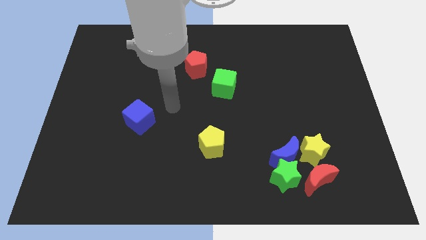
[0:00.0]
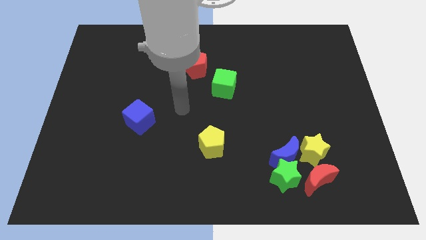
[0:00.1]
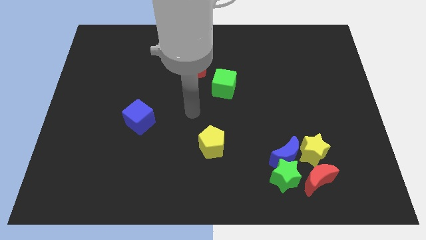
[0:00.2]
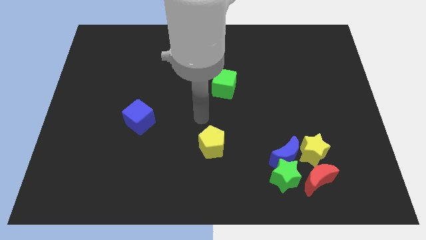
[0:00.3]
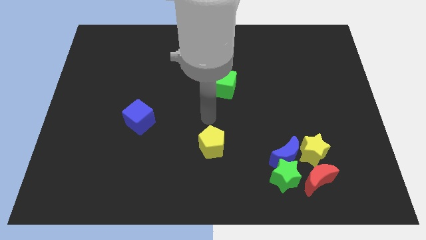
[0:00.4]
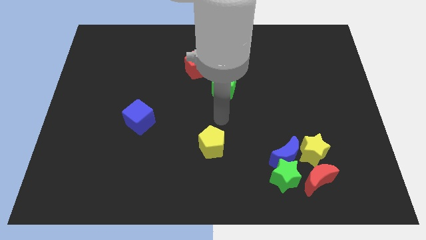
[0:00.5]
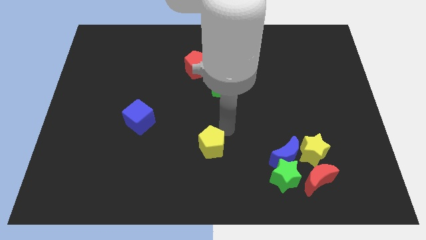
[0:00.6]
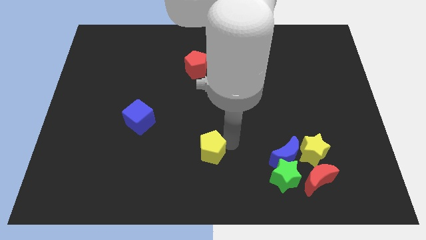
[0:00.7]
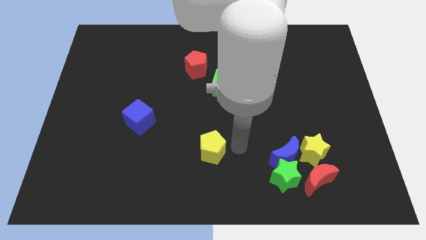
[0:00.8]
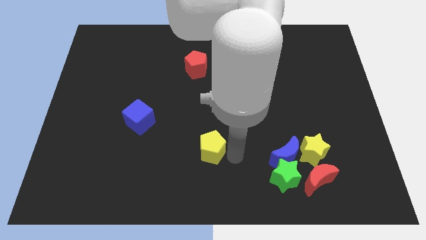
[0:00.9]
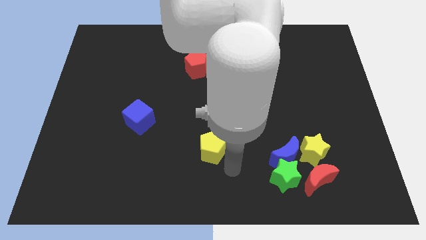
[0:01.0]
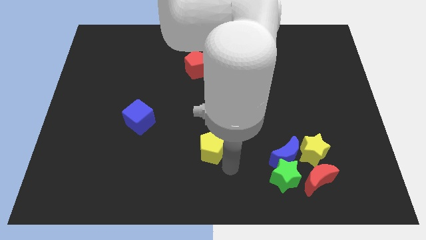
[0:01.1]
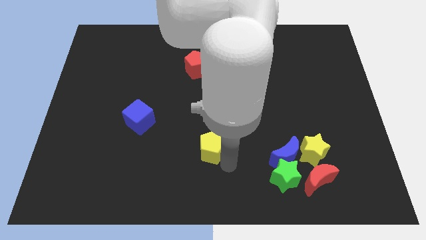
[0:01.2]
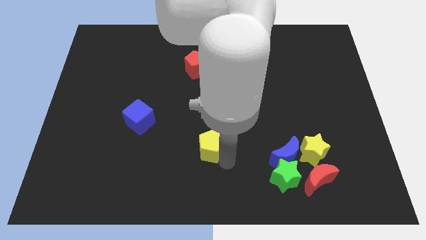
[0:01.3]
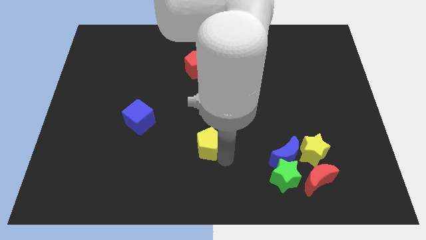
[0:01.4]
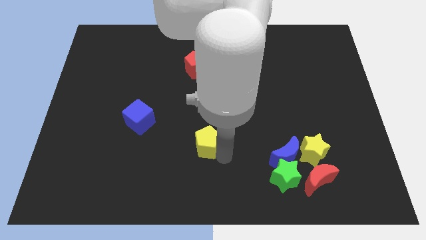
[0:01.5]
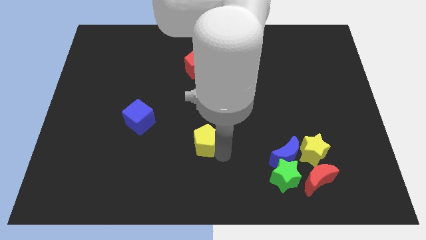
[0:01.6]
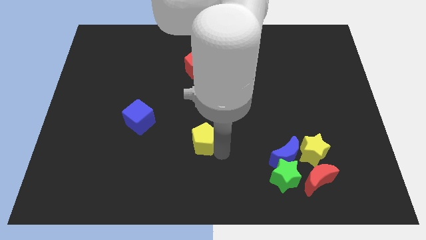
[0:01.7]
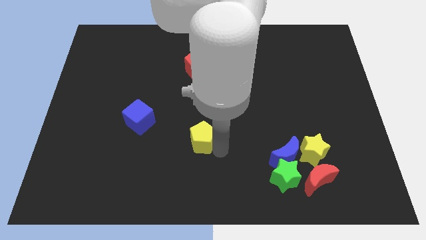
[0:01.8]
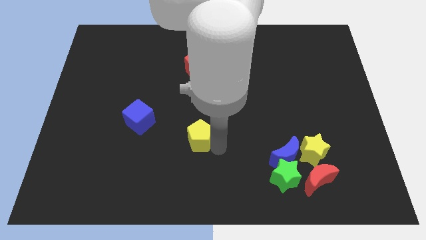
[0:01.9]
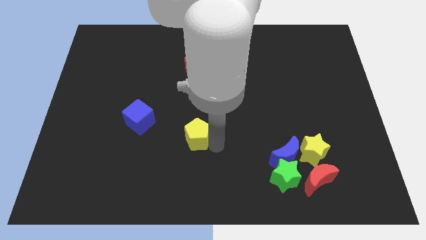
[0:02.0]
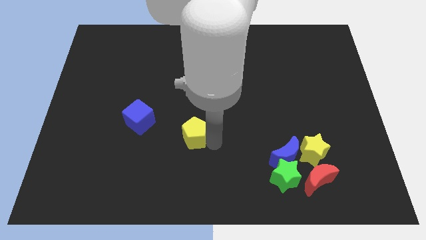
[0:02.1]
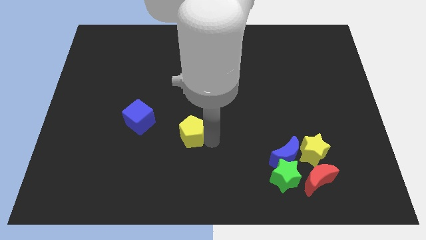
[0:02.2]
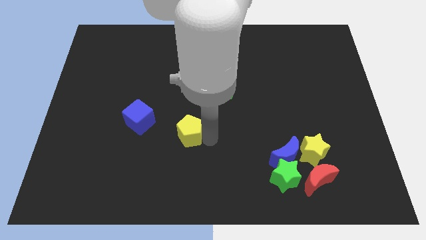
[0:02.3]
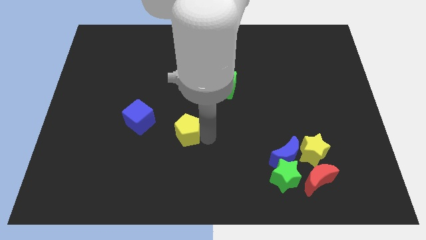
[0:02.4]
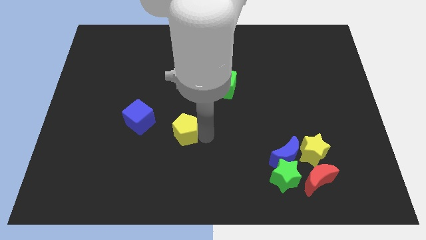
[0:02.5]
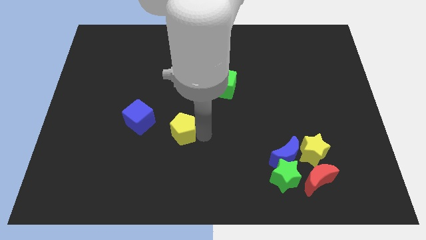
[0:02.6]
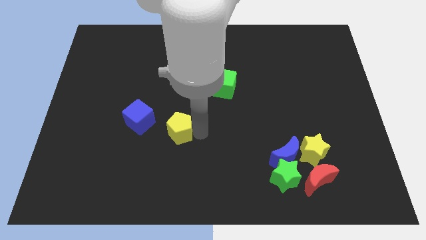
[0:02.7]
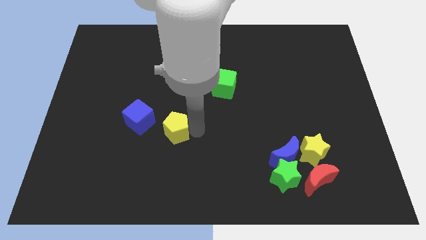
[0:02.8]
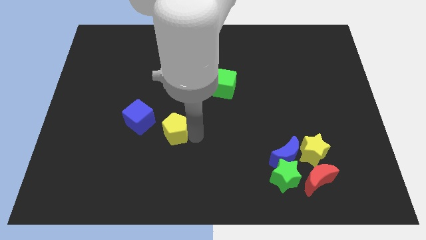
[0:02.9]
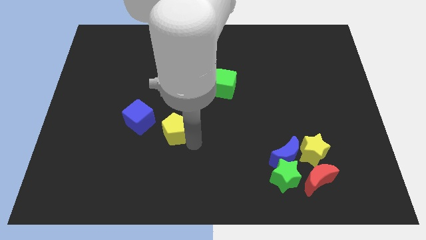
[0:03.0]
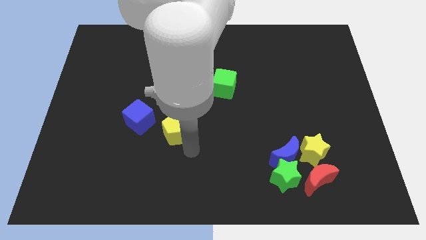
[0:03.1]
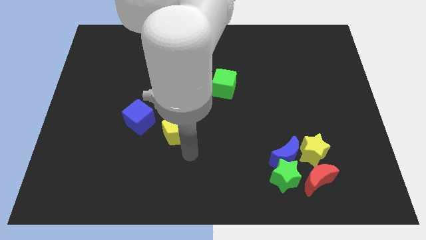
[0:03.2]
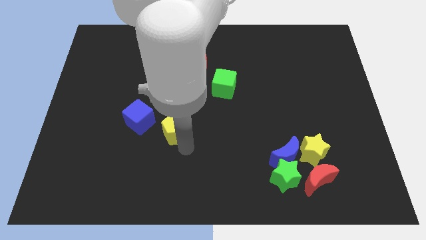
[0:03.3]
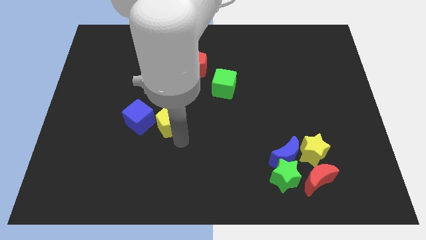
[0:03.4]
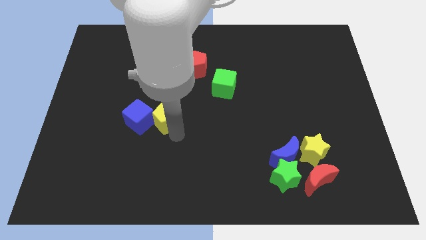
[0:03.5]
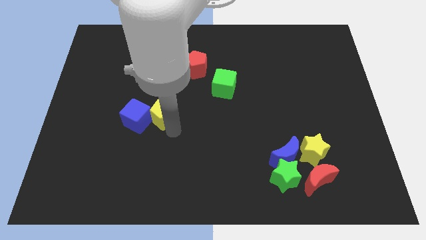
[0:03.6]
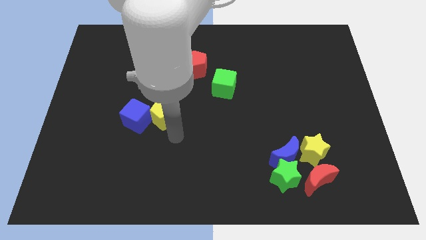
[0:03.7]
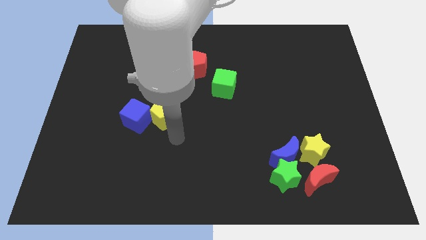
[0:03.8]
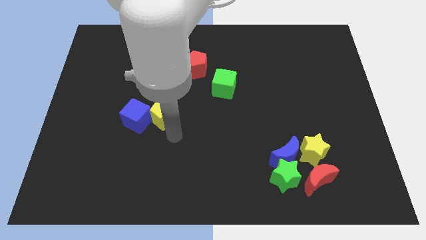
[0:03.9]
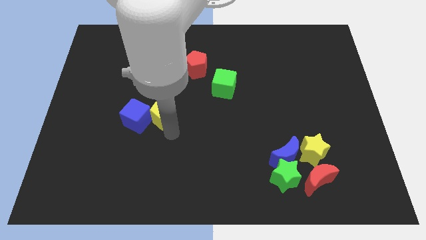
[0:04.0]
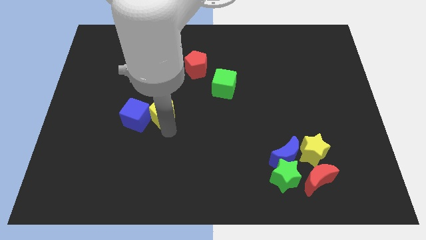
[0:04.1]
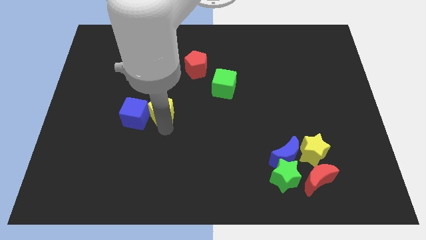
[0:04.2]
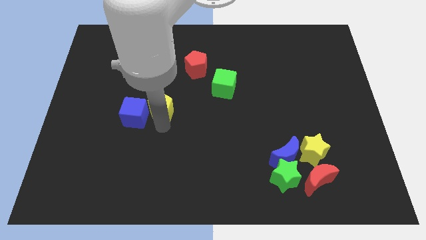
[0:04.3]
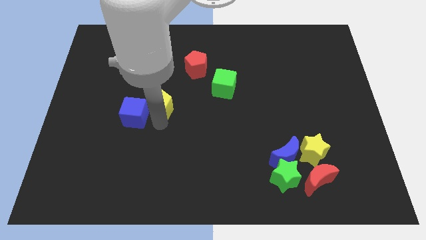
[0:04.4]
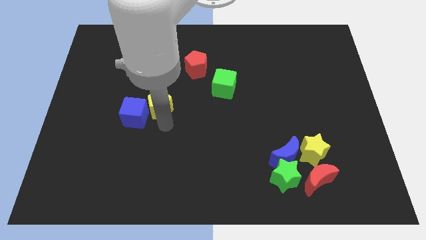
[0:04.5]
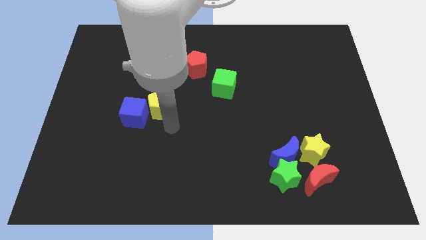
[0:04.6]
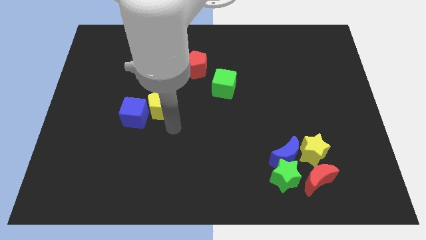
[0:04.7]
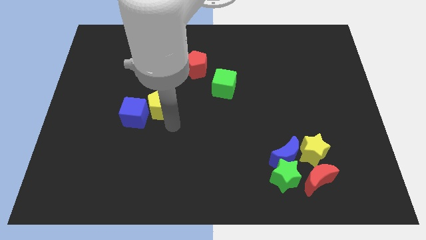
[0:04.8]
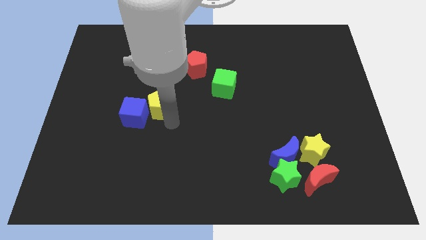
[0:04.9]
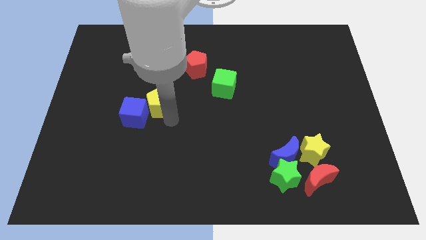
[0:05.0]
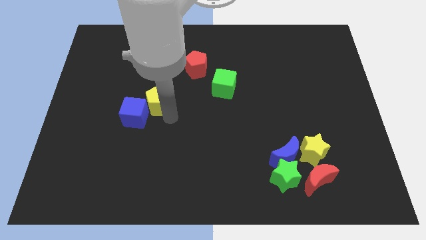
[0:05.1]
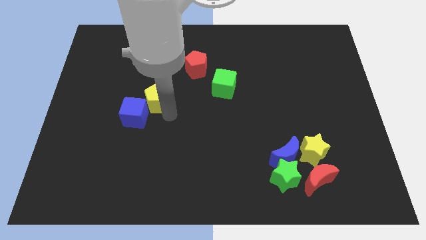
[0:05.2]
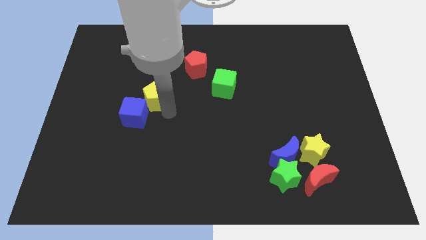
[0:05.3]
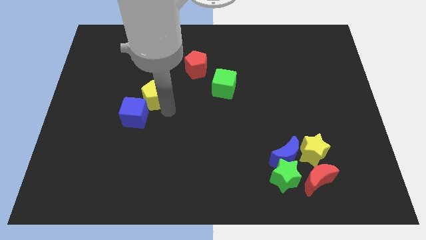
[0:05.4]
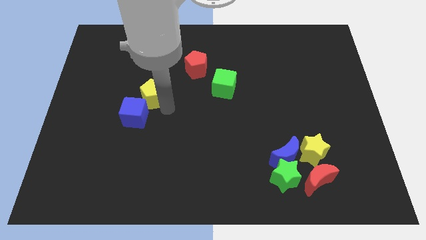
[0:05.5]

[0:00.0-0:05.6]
push the yellow pentagon diagonally upwards and to the left

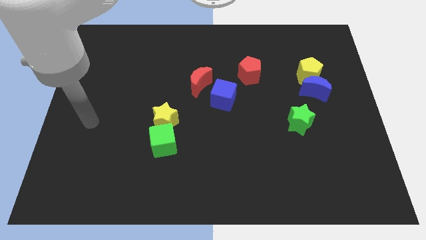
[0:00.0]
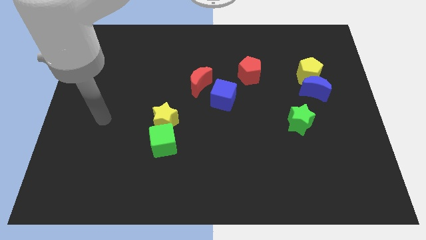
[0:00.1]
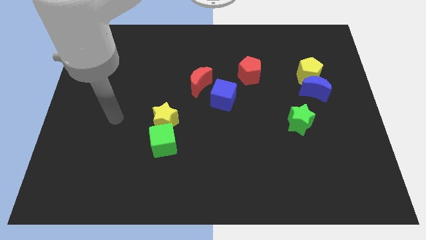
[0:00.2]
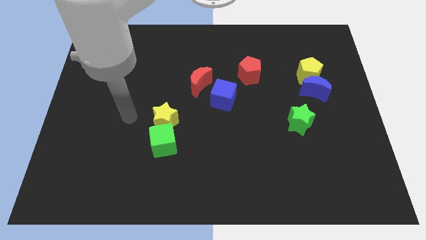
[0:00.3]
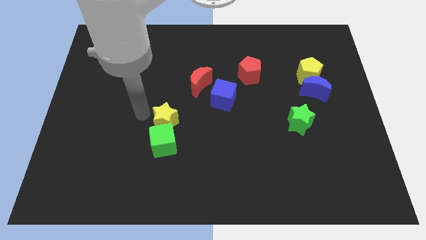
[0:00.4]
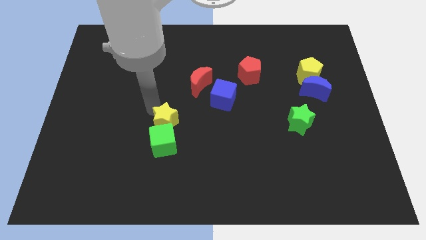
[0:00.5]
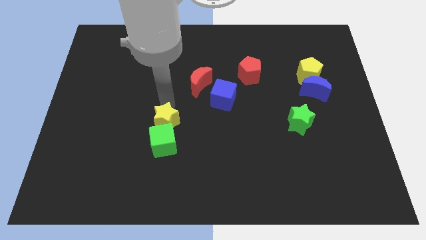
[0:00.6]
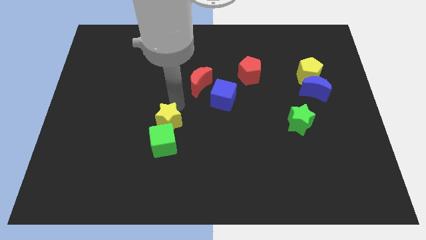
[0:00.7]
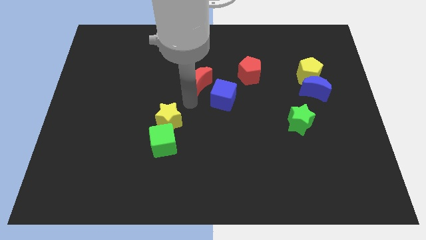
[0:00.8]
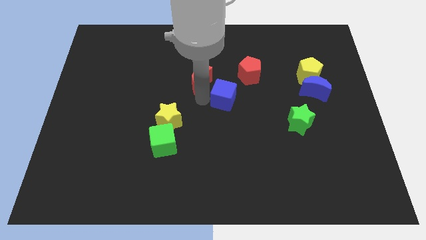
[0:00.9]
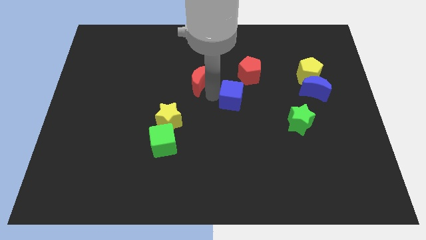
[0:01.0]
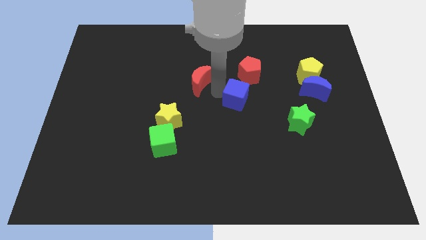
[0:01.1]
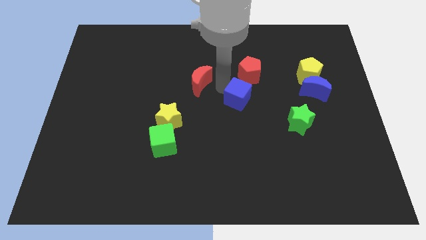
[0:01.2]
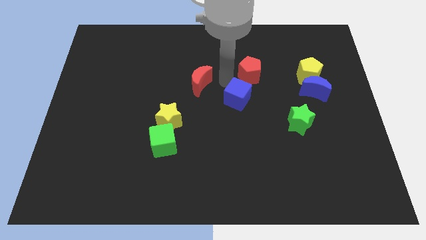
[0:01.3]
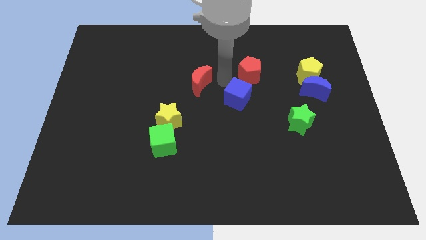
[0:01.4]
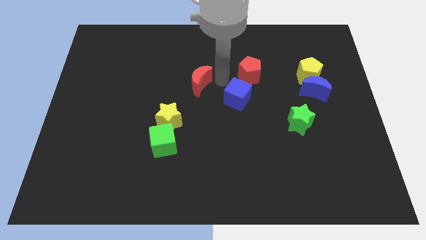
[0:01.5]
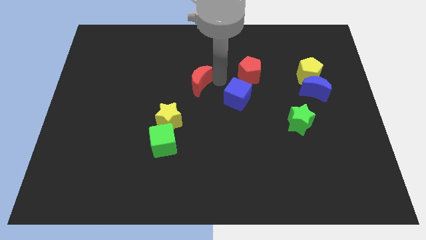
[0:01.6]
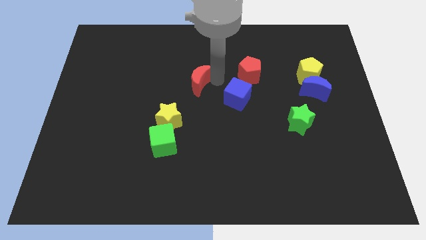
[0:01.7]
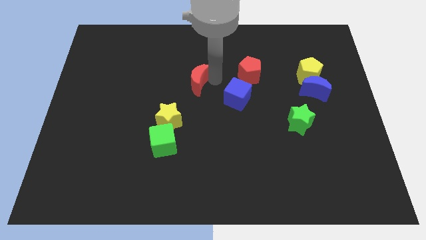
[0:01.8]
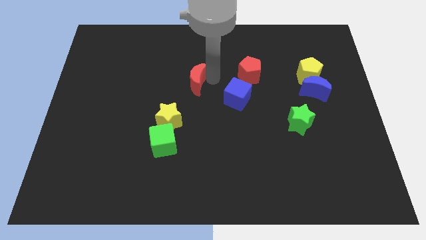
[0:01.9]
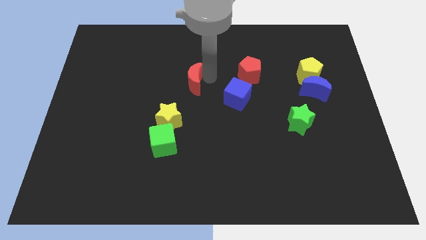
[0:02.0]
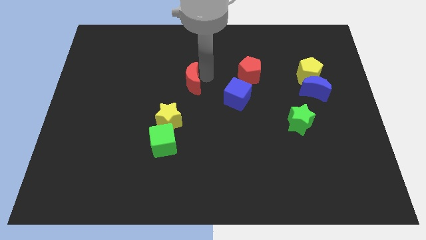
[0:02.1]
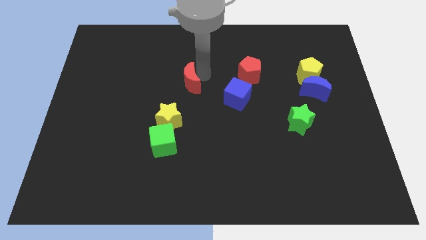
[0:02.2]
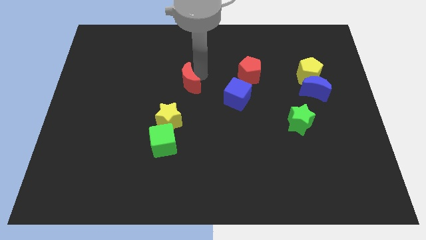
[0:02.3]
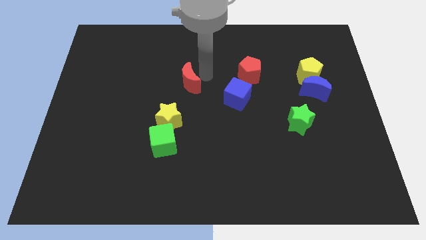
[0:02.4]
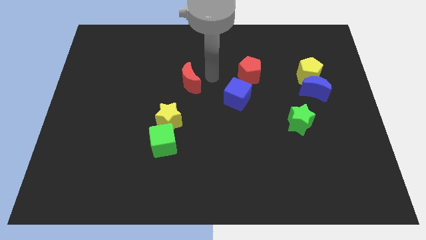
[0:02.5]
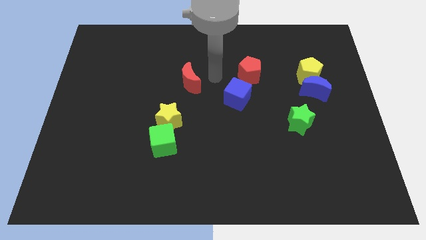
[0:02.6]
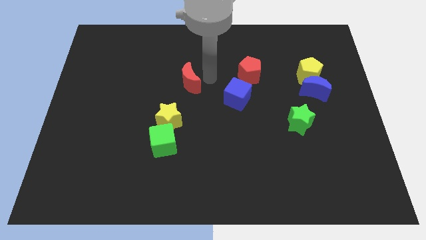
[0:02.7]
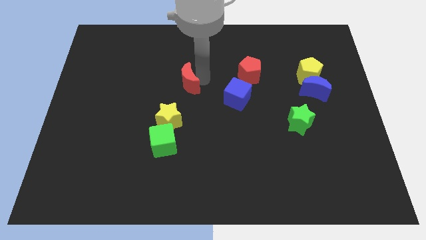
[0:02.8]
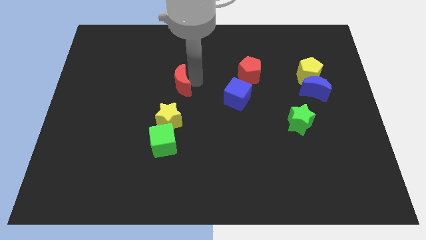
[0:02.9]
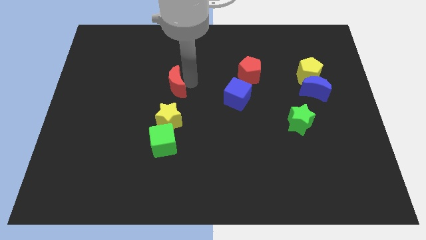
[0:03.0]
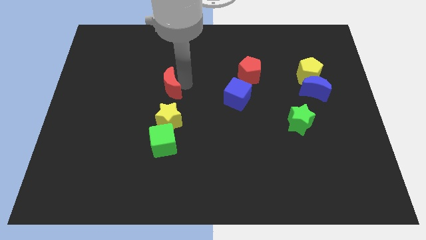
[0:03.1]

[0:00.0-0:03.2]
slightly move the red moon to the left
